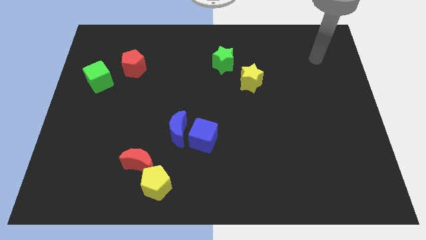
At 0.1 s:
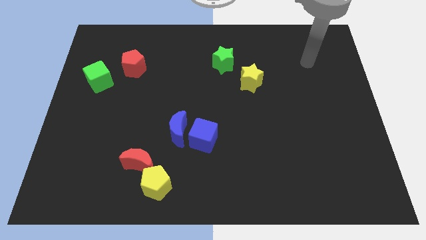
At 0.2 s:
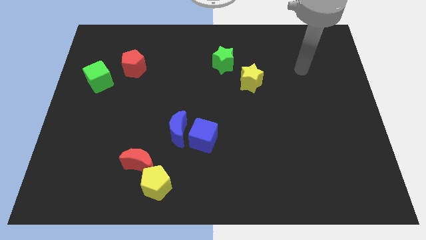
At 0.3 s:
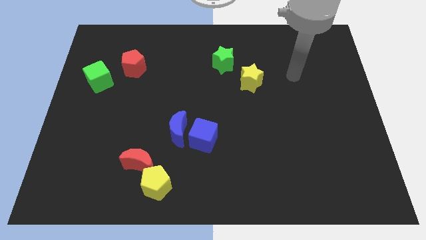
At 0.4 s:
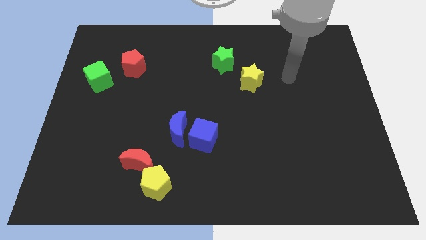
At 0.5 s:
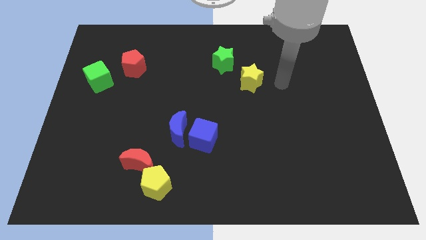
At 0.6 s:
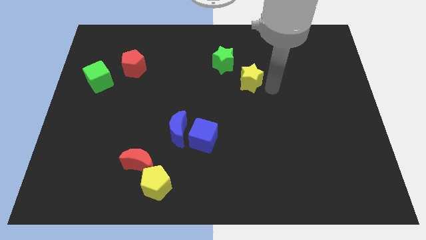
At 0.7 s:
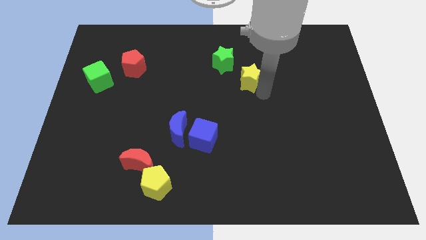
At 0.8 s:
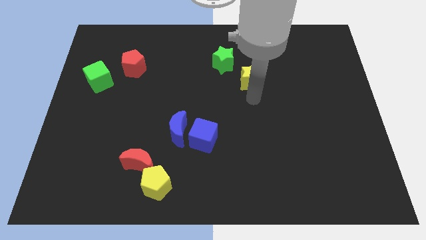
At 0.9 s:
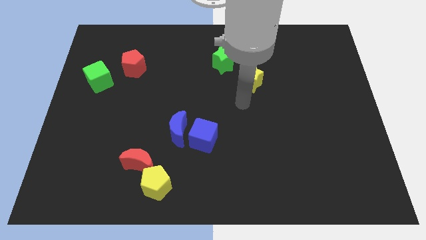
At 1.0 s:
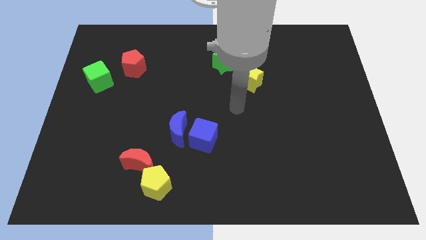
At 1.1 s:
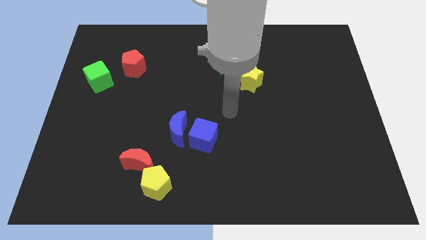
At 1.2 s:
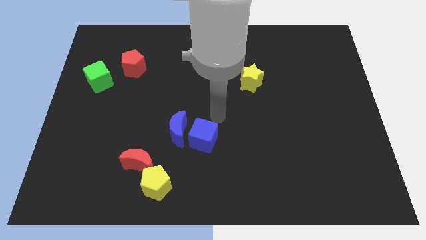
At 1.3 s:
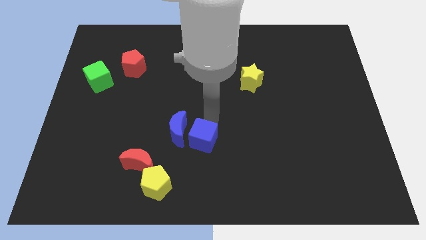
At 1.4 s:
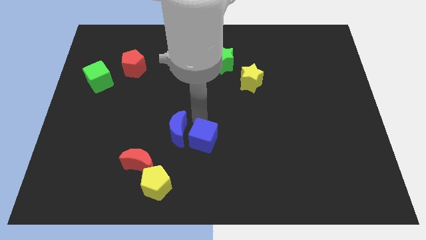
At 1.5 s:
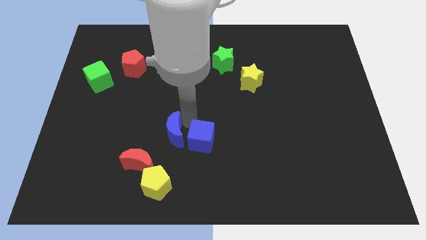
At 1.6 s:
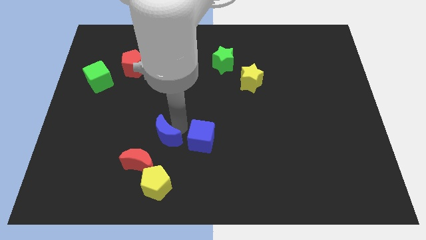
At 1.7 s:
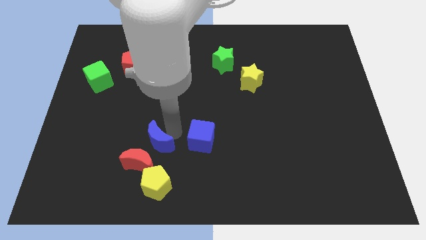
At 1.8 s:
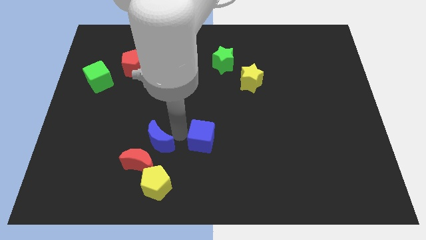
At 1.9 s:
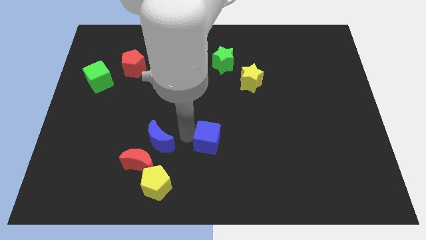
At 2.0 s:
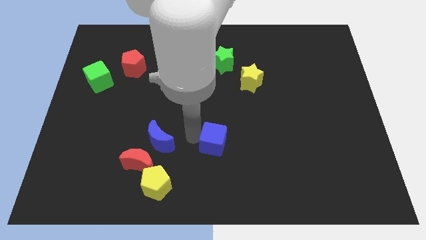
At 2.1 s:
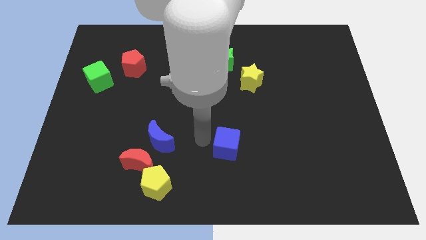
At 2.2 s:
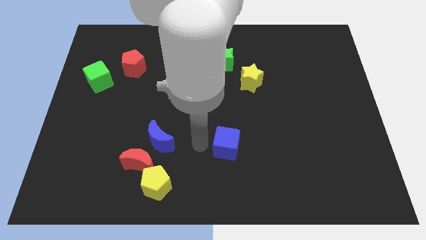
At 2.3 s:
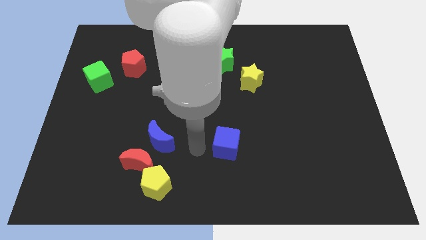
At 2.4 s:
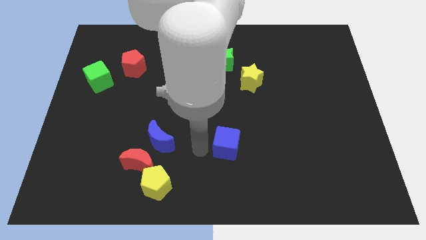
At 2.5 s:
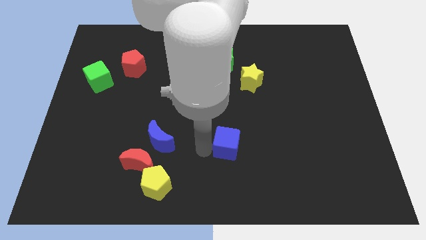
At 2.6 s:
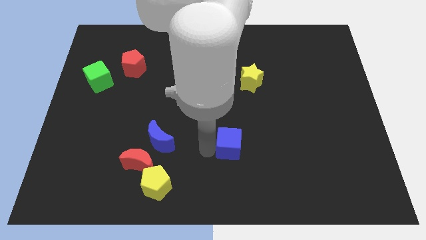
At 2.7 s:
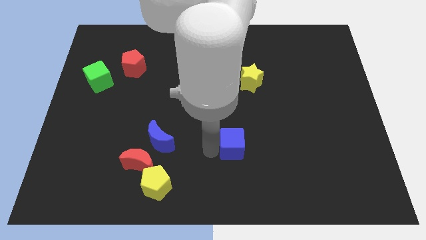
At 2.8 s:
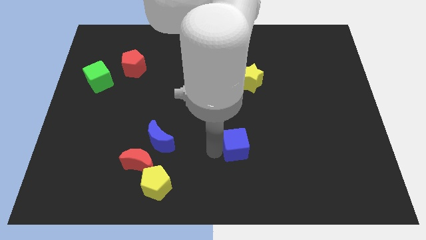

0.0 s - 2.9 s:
push the blue cube to the right a little bit

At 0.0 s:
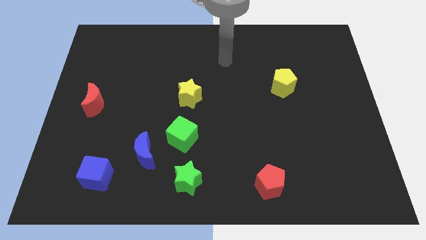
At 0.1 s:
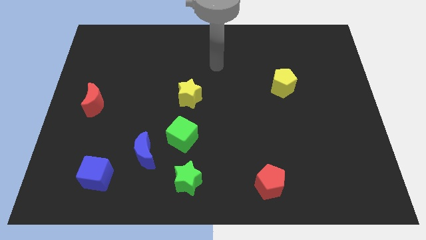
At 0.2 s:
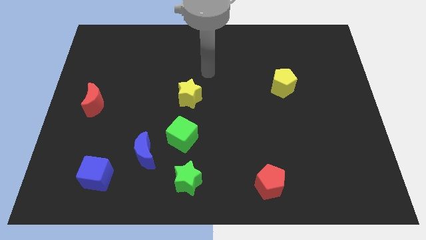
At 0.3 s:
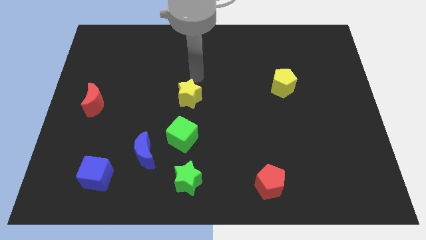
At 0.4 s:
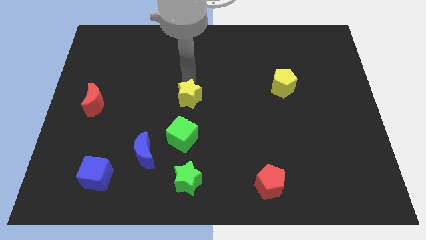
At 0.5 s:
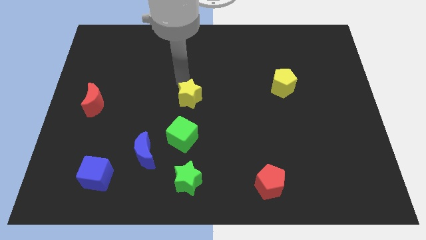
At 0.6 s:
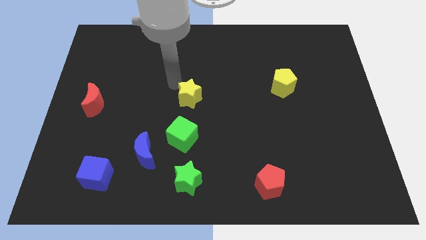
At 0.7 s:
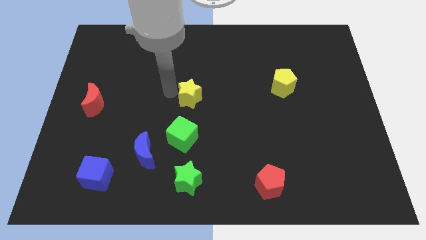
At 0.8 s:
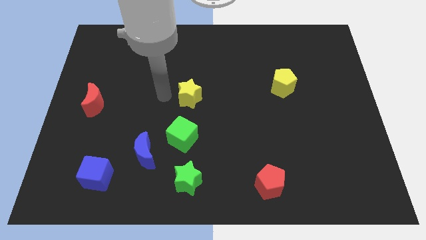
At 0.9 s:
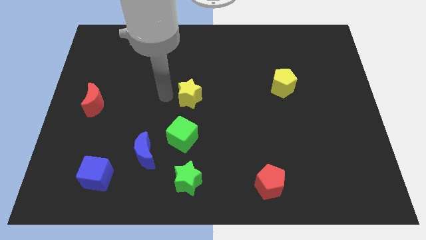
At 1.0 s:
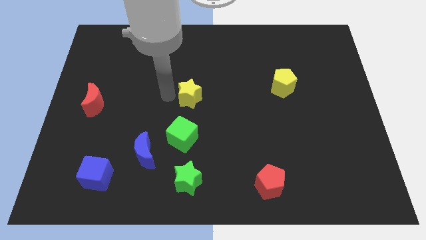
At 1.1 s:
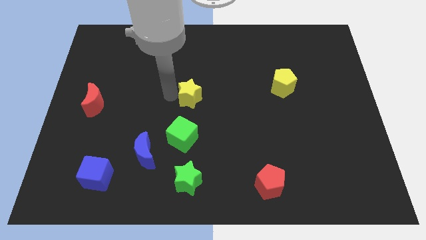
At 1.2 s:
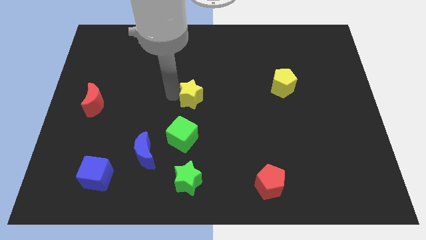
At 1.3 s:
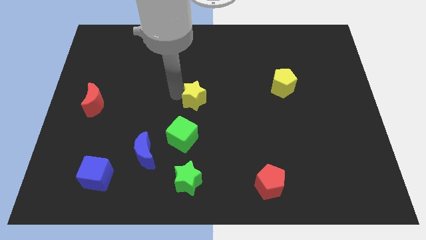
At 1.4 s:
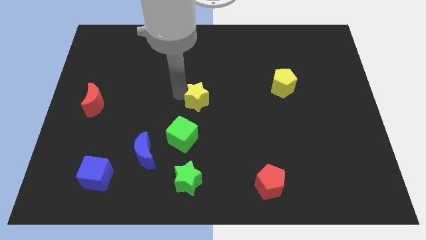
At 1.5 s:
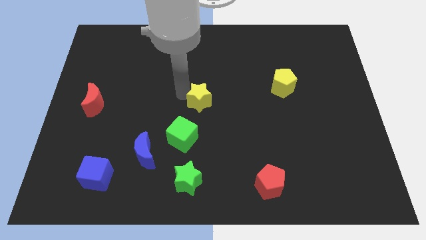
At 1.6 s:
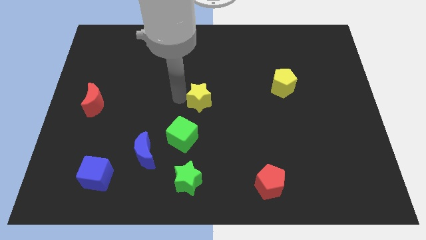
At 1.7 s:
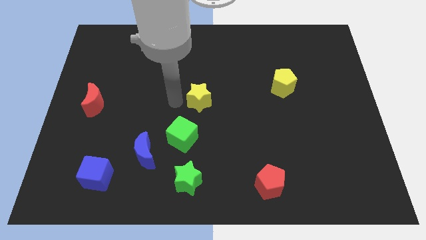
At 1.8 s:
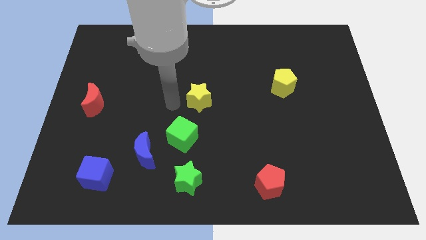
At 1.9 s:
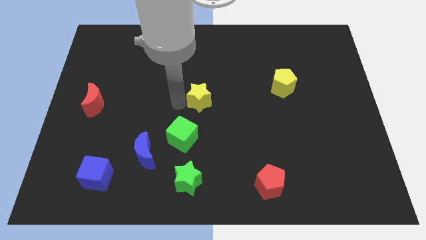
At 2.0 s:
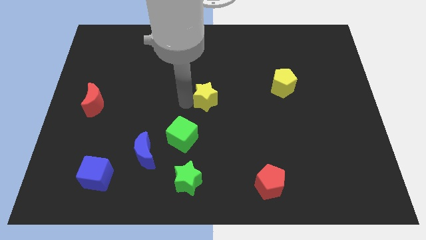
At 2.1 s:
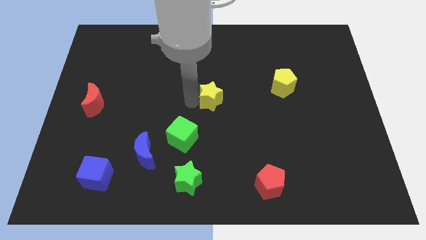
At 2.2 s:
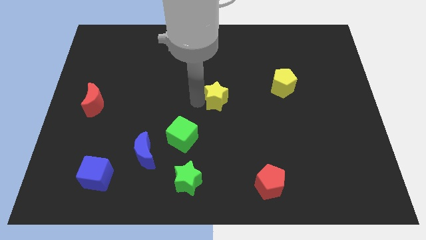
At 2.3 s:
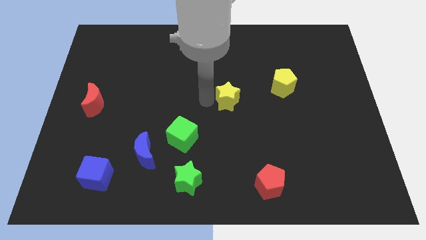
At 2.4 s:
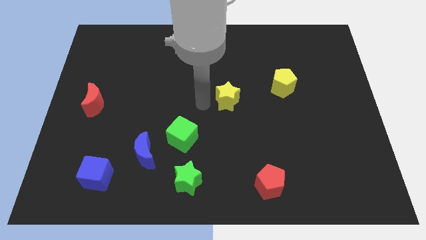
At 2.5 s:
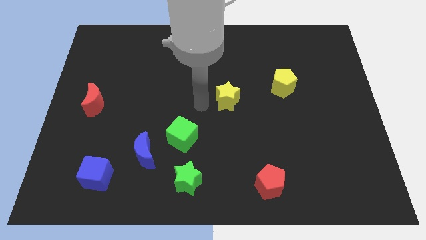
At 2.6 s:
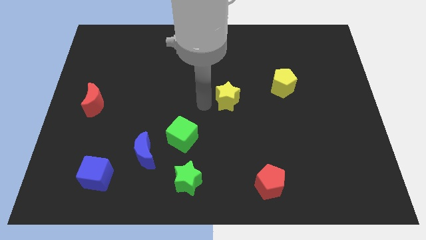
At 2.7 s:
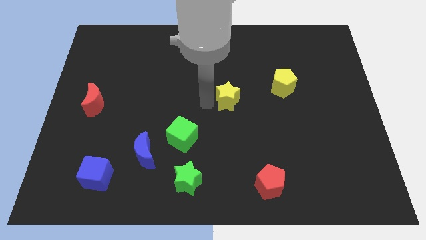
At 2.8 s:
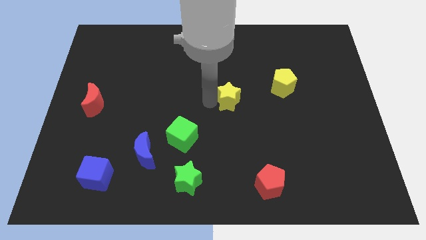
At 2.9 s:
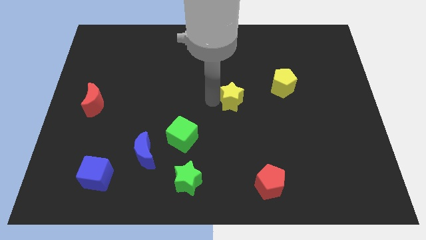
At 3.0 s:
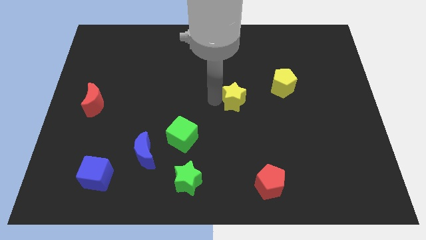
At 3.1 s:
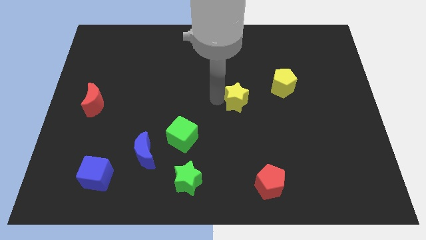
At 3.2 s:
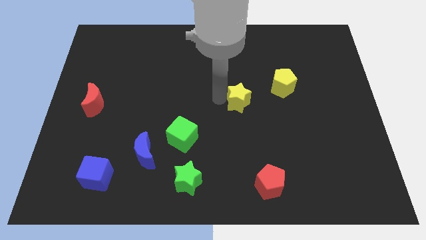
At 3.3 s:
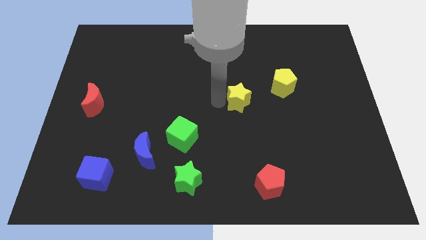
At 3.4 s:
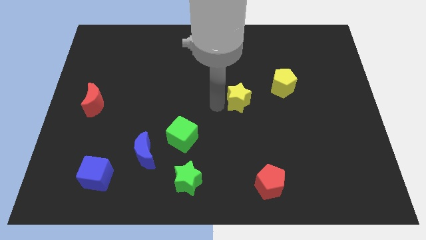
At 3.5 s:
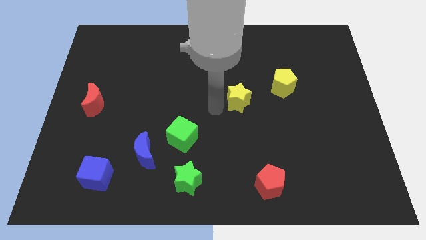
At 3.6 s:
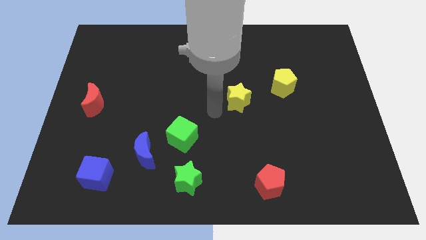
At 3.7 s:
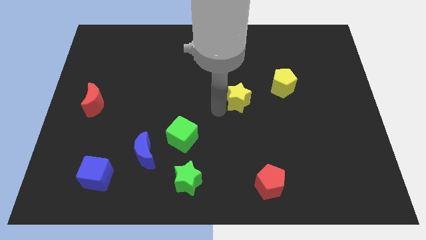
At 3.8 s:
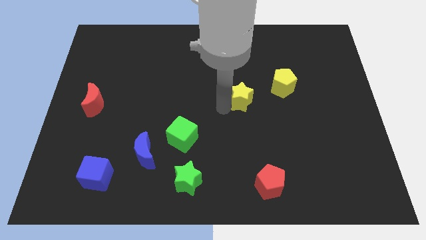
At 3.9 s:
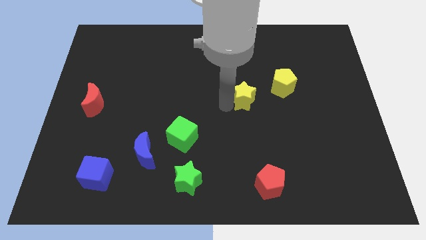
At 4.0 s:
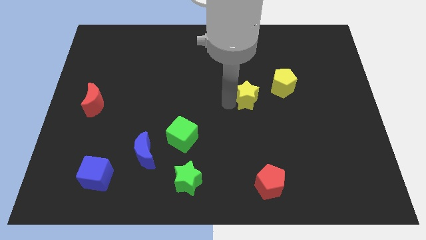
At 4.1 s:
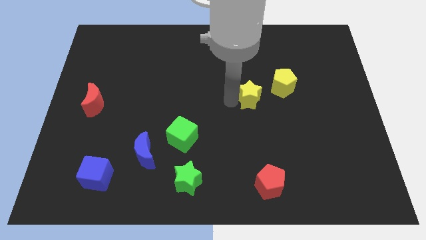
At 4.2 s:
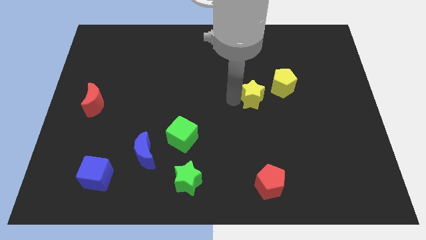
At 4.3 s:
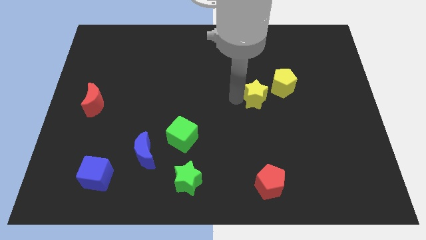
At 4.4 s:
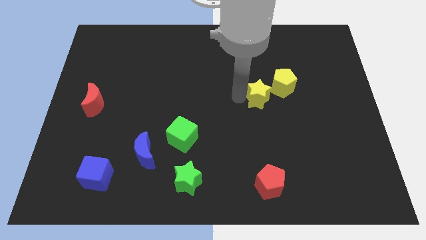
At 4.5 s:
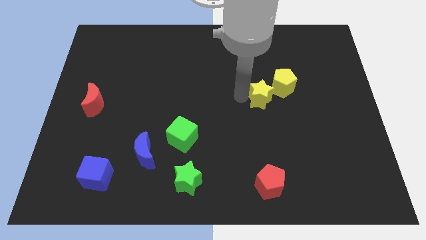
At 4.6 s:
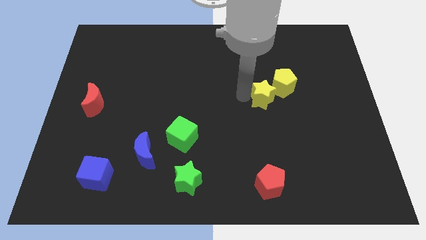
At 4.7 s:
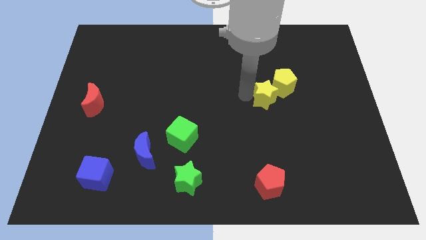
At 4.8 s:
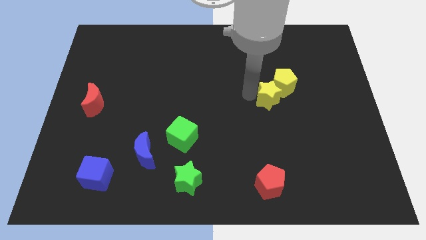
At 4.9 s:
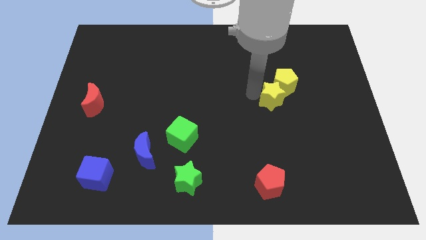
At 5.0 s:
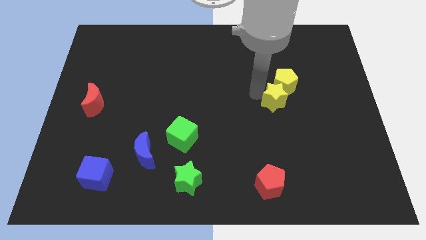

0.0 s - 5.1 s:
push the yellow star to the right
